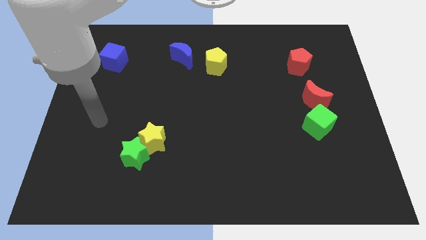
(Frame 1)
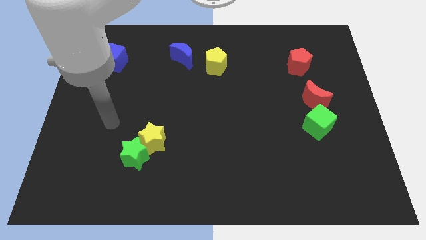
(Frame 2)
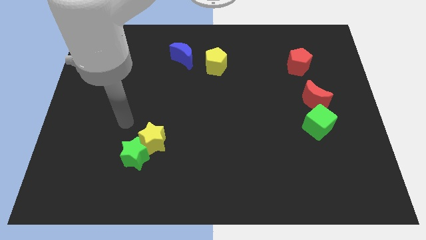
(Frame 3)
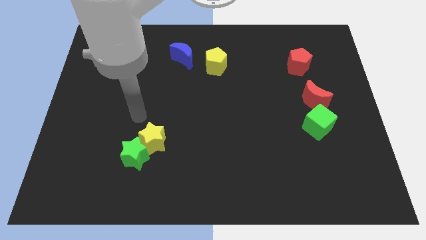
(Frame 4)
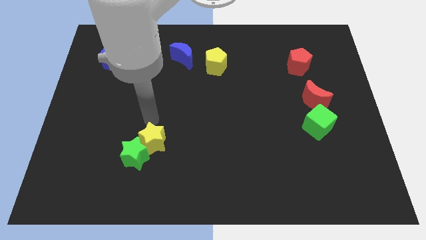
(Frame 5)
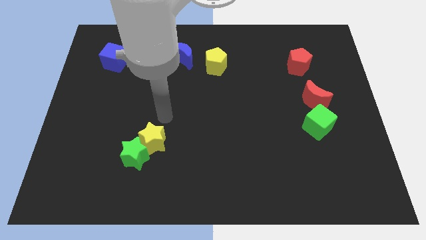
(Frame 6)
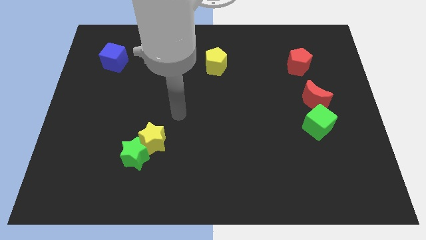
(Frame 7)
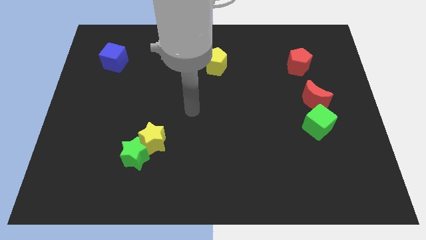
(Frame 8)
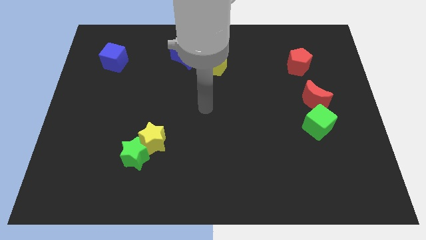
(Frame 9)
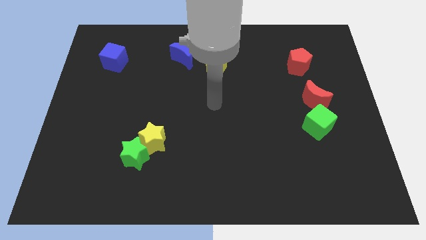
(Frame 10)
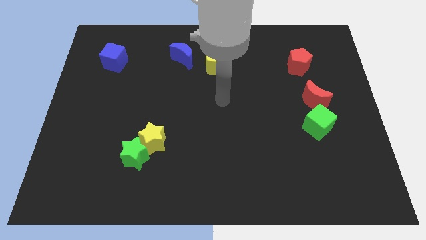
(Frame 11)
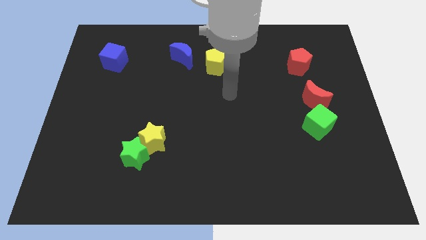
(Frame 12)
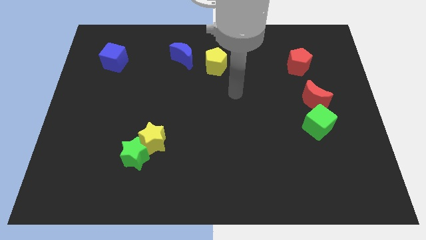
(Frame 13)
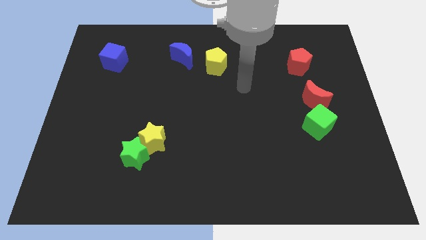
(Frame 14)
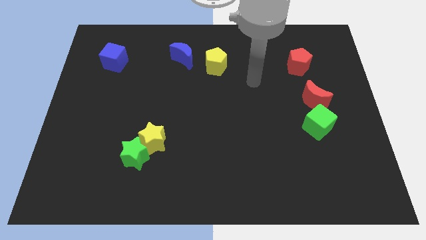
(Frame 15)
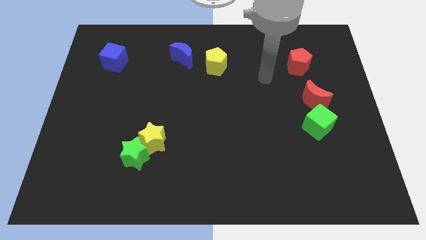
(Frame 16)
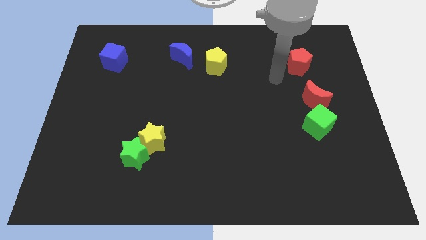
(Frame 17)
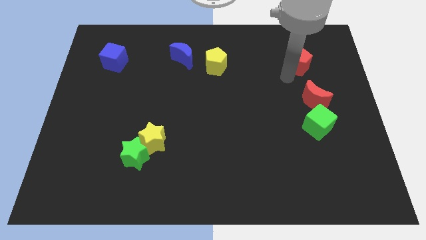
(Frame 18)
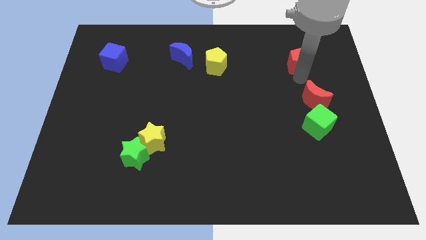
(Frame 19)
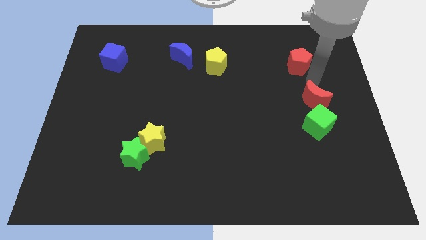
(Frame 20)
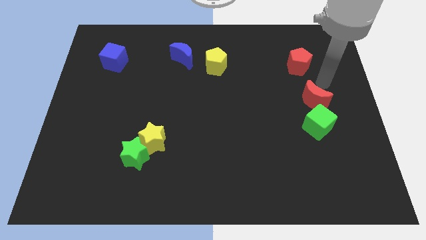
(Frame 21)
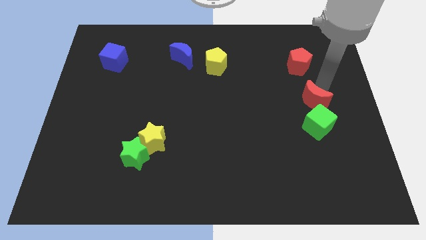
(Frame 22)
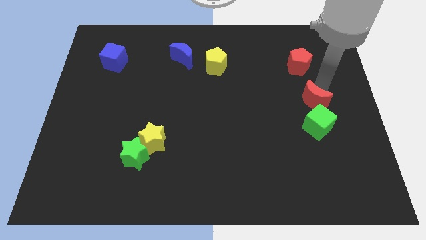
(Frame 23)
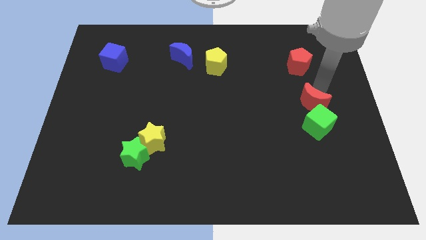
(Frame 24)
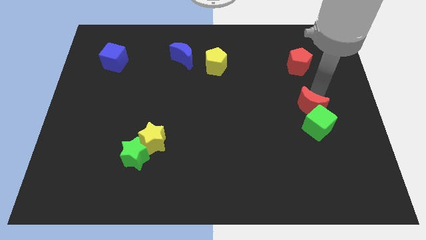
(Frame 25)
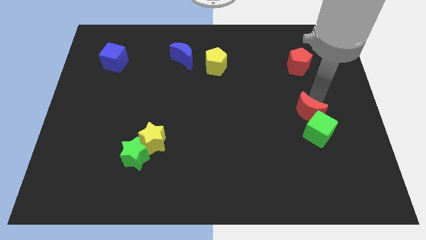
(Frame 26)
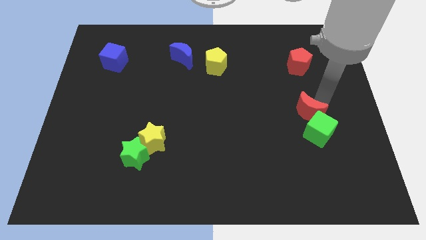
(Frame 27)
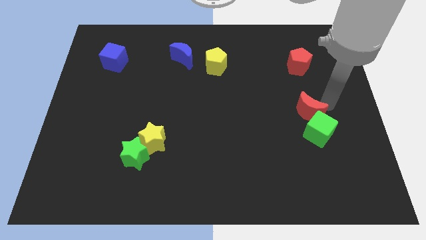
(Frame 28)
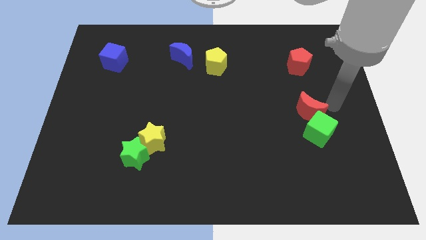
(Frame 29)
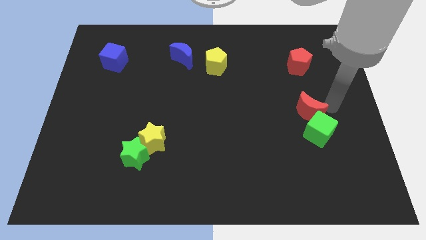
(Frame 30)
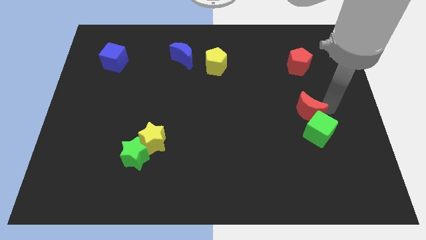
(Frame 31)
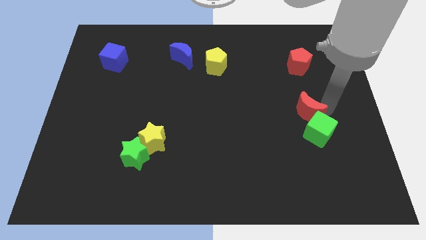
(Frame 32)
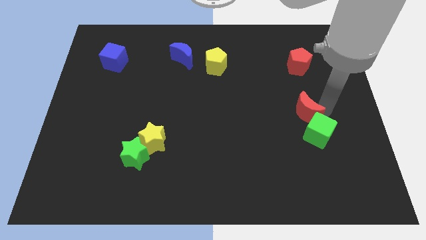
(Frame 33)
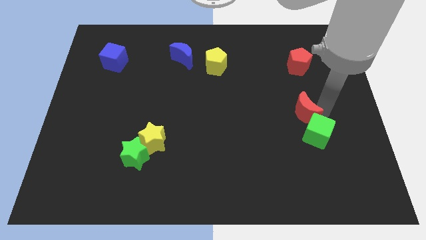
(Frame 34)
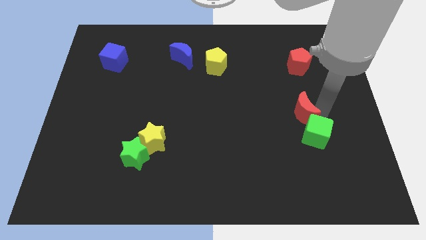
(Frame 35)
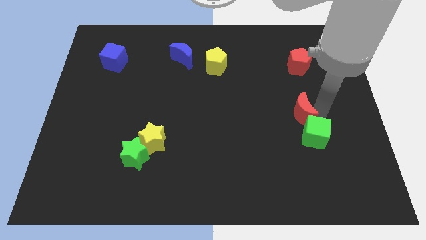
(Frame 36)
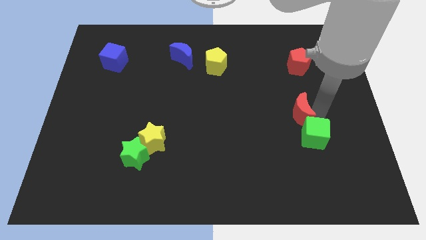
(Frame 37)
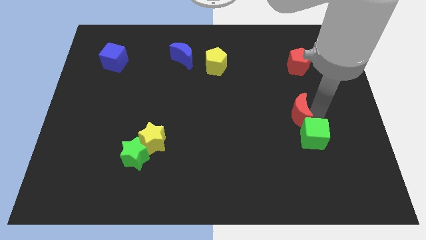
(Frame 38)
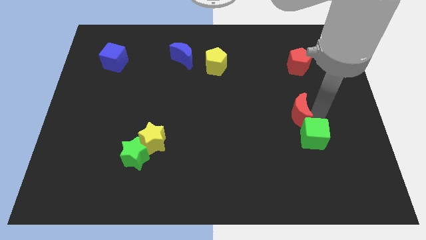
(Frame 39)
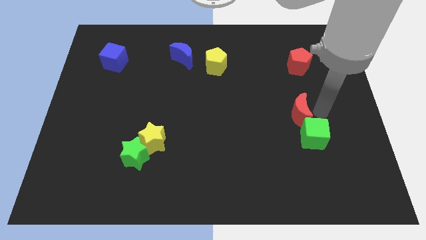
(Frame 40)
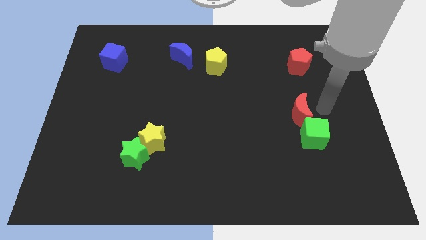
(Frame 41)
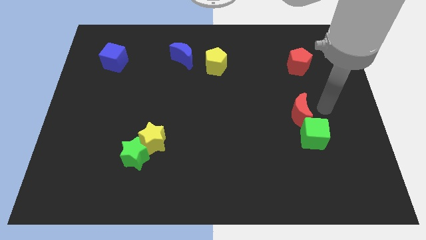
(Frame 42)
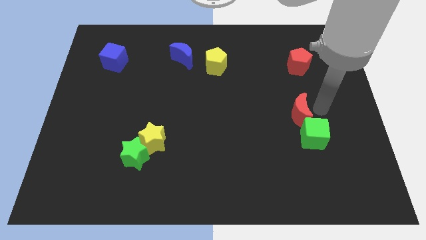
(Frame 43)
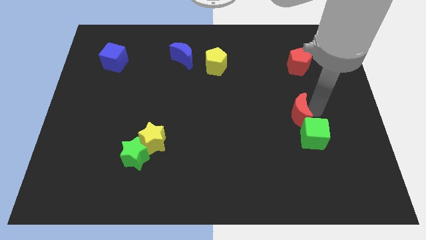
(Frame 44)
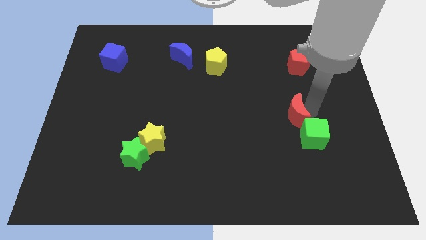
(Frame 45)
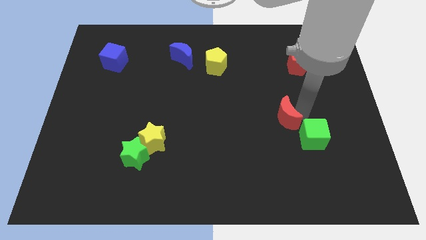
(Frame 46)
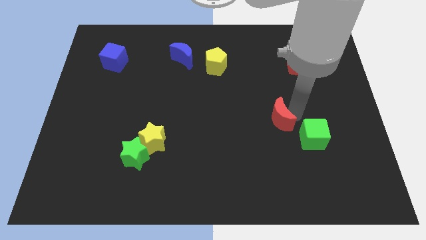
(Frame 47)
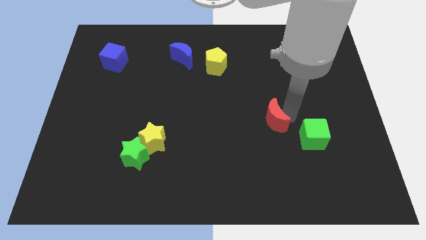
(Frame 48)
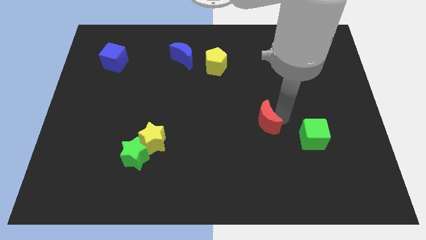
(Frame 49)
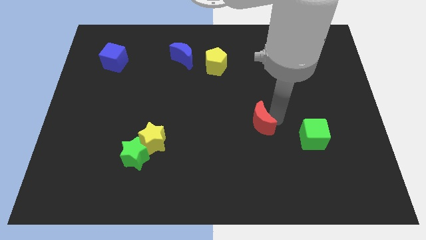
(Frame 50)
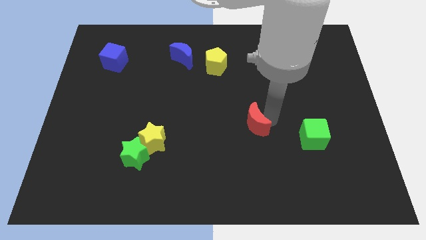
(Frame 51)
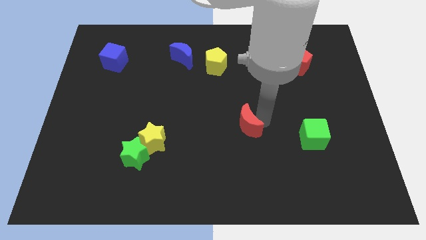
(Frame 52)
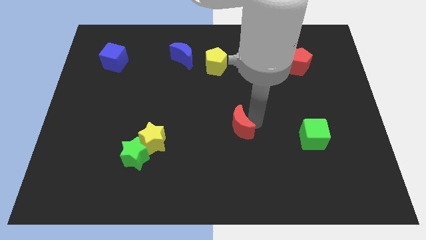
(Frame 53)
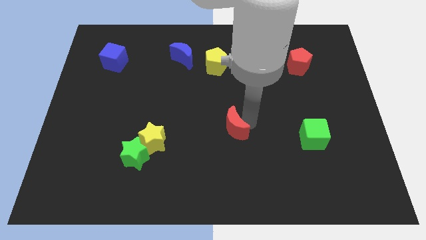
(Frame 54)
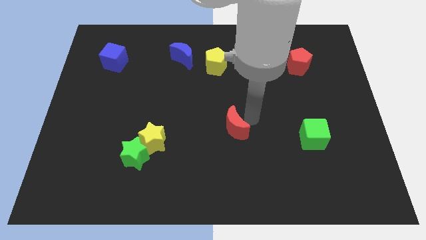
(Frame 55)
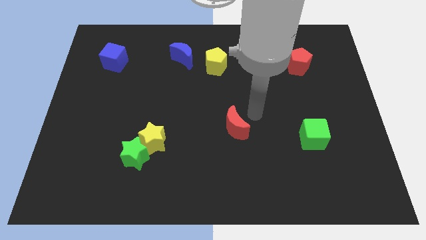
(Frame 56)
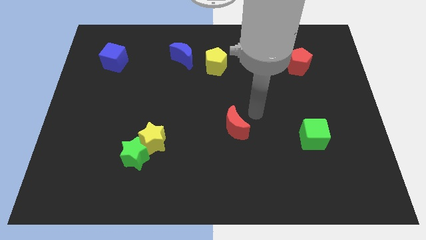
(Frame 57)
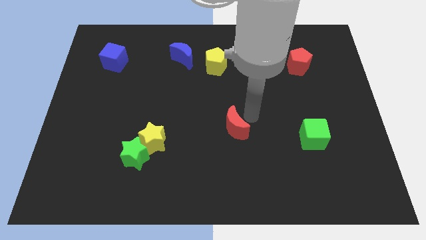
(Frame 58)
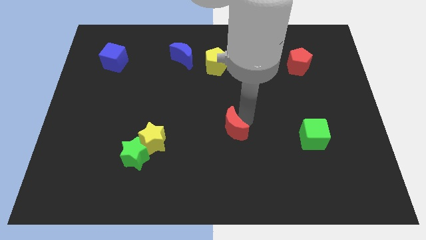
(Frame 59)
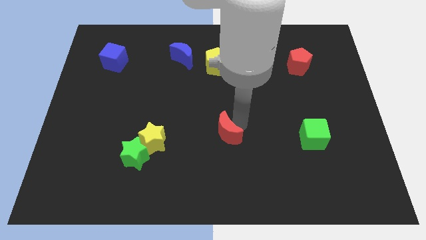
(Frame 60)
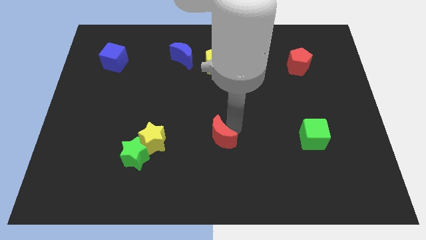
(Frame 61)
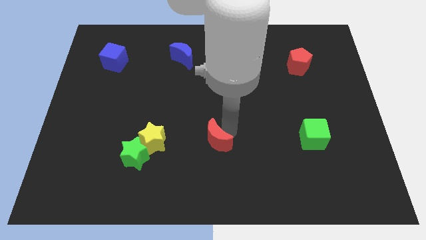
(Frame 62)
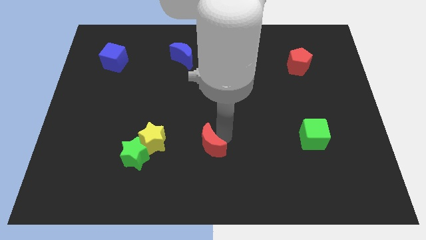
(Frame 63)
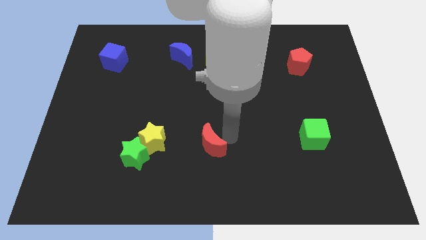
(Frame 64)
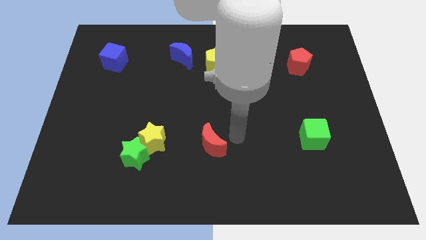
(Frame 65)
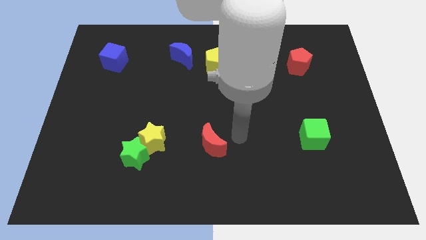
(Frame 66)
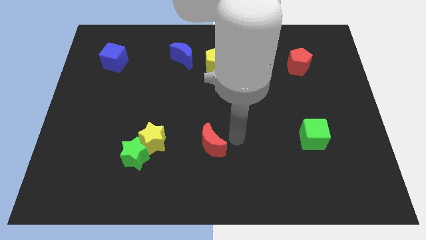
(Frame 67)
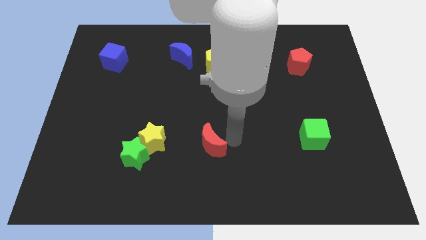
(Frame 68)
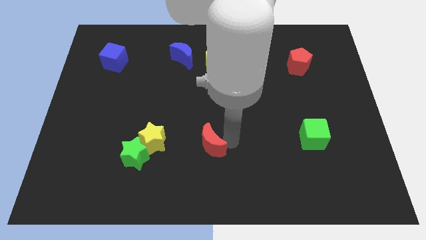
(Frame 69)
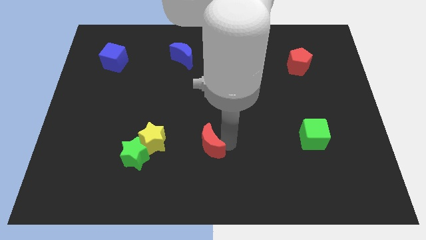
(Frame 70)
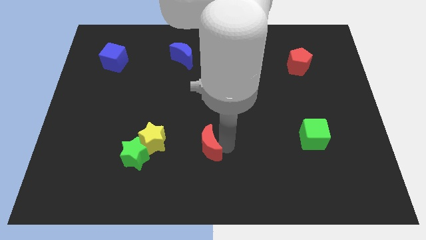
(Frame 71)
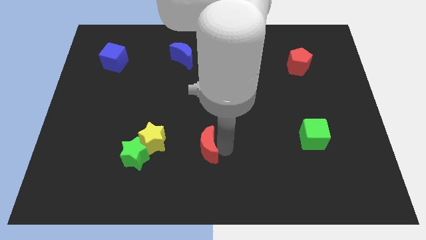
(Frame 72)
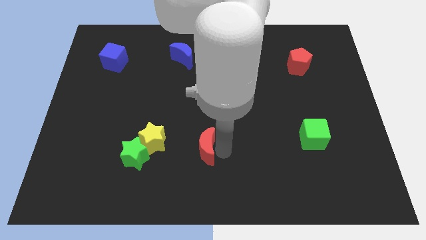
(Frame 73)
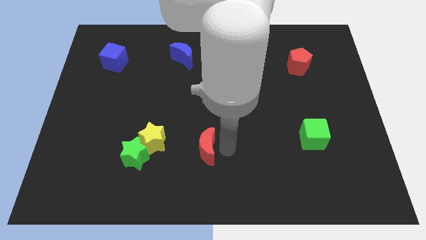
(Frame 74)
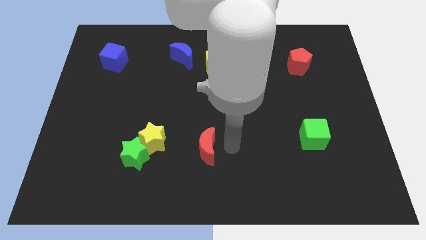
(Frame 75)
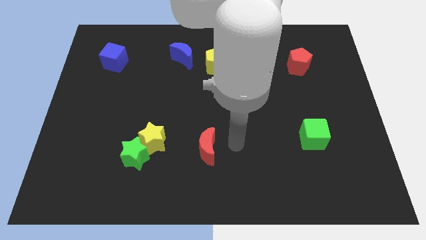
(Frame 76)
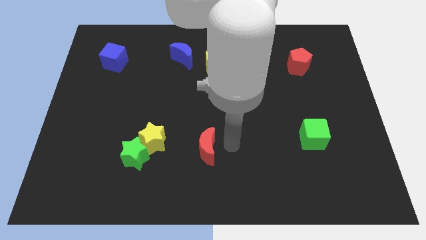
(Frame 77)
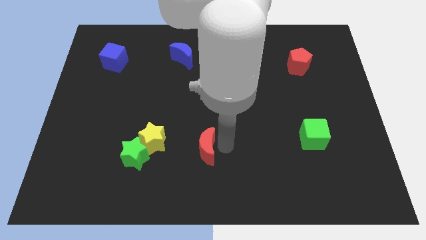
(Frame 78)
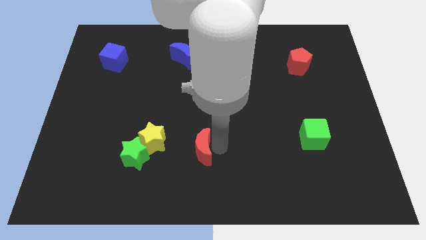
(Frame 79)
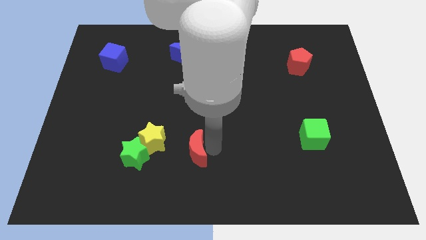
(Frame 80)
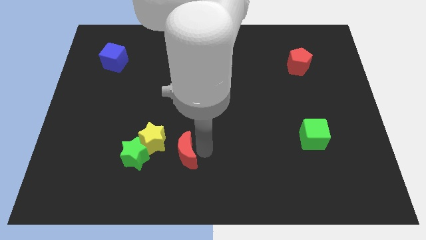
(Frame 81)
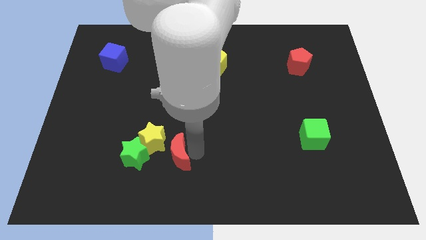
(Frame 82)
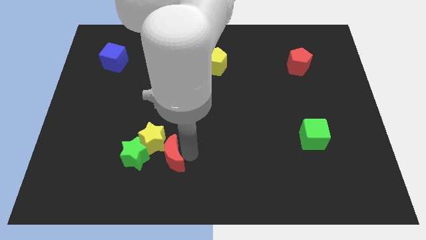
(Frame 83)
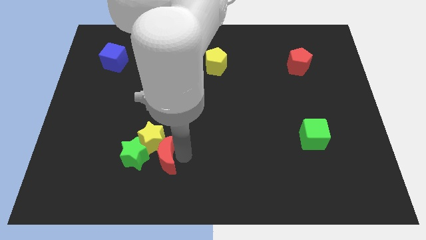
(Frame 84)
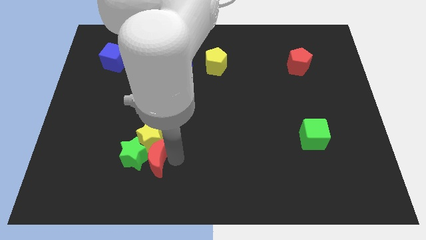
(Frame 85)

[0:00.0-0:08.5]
slide the red moon to the green star
